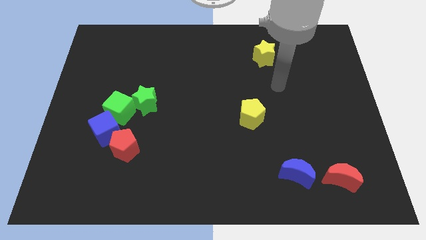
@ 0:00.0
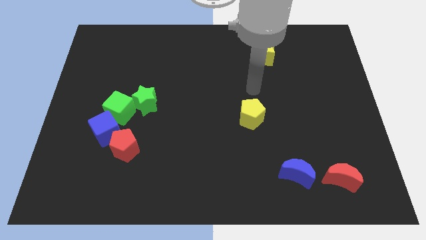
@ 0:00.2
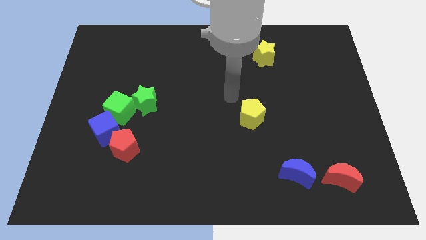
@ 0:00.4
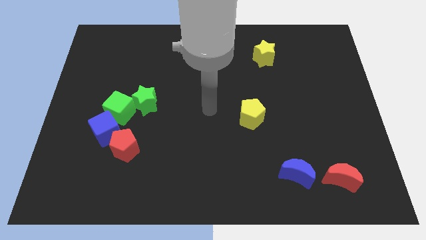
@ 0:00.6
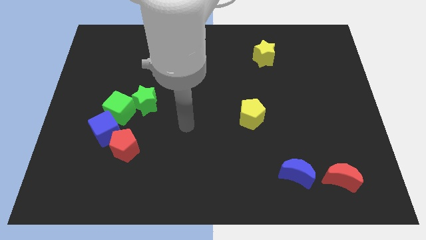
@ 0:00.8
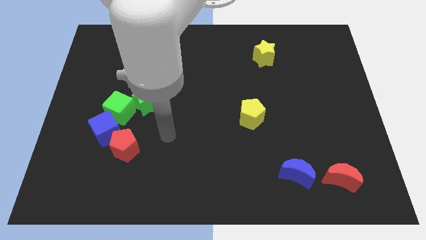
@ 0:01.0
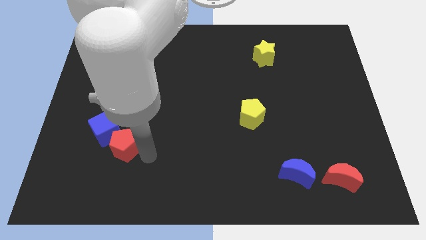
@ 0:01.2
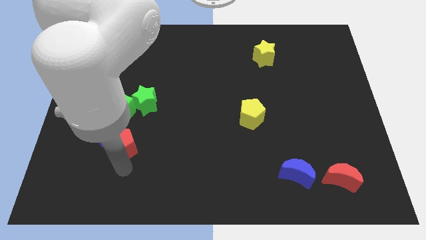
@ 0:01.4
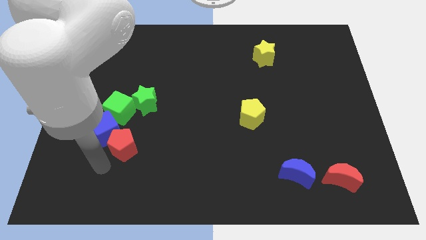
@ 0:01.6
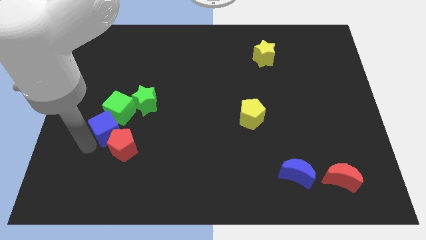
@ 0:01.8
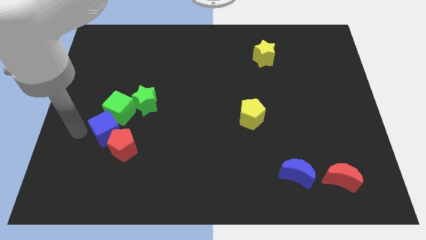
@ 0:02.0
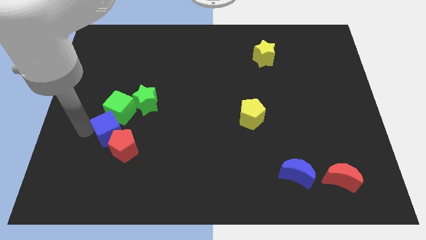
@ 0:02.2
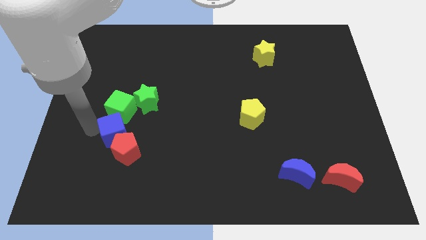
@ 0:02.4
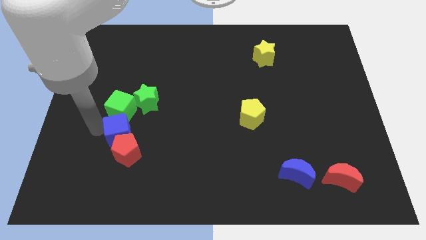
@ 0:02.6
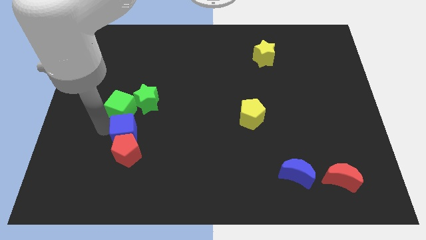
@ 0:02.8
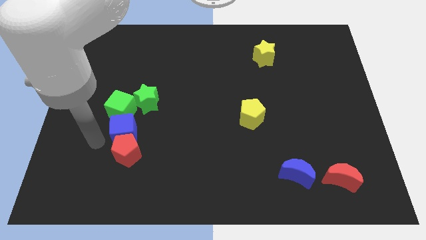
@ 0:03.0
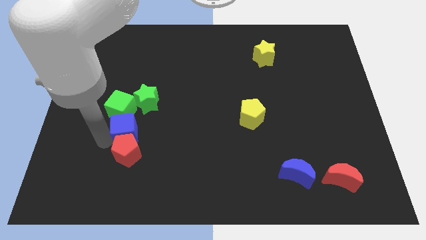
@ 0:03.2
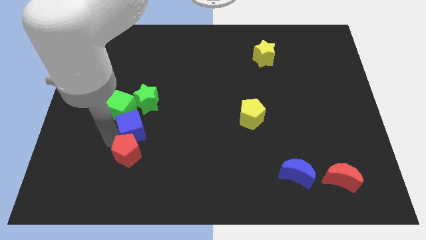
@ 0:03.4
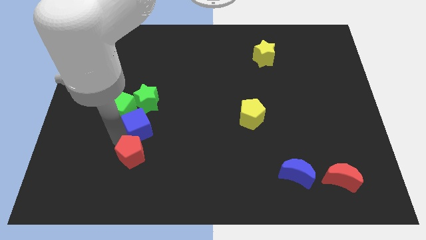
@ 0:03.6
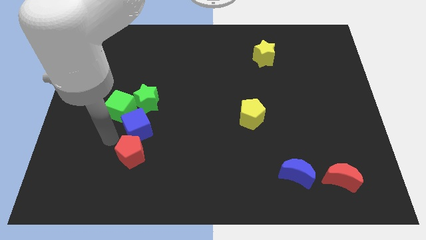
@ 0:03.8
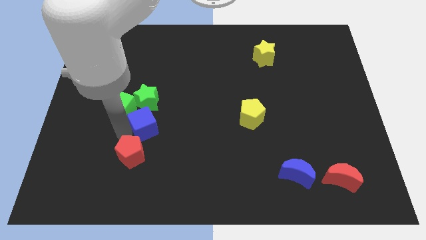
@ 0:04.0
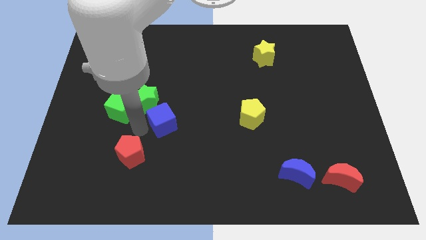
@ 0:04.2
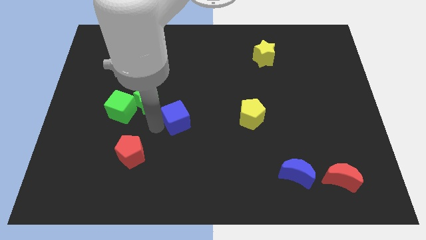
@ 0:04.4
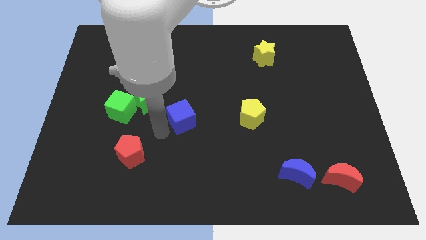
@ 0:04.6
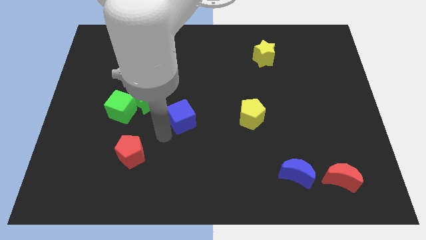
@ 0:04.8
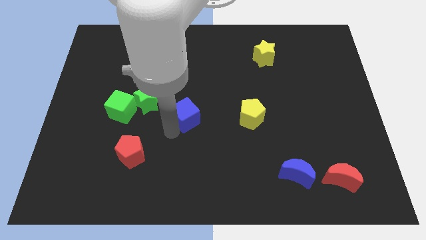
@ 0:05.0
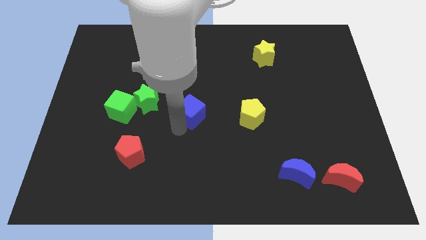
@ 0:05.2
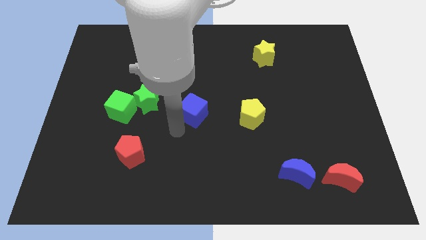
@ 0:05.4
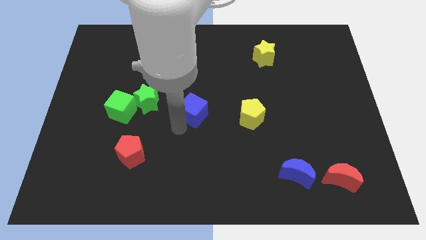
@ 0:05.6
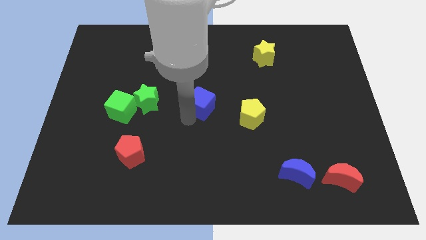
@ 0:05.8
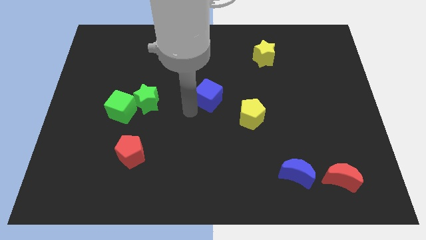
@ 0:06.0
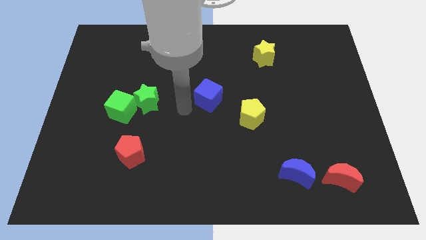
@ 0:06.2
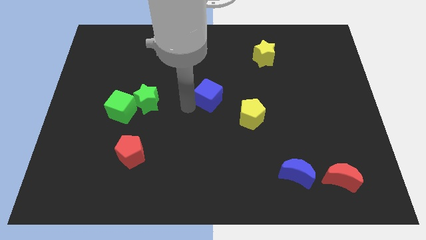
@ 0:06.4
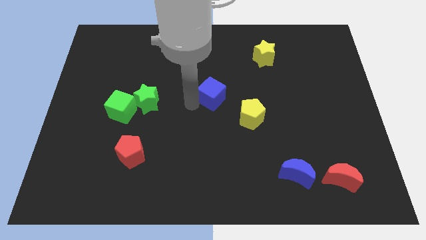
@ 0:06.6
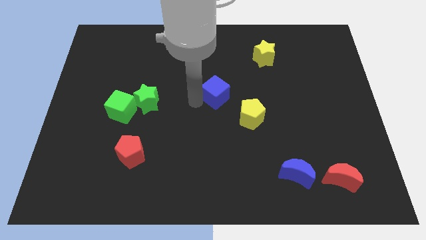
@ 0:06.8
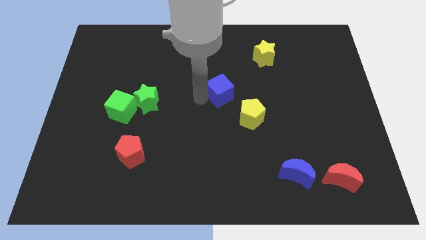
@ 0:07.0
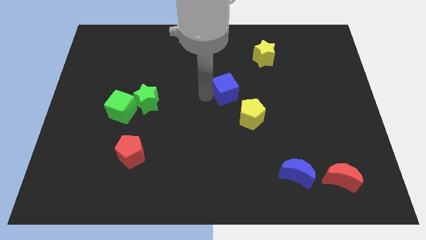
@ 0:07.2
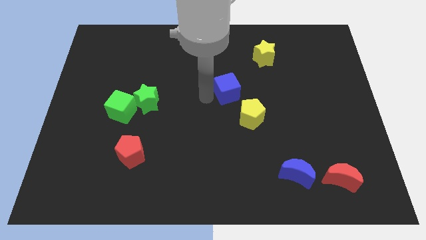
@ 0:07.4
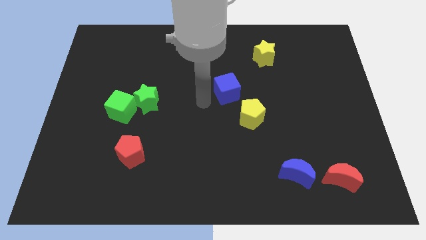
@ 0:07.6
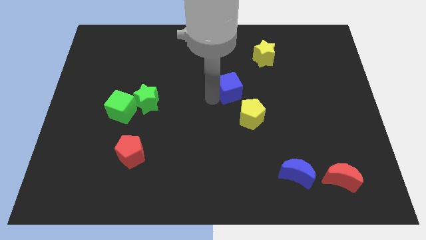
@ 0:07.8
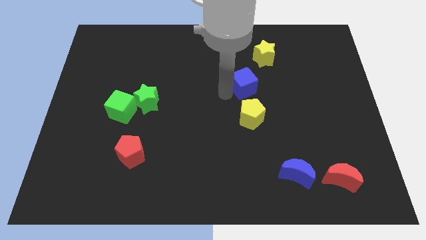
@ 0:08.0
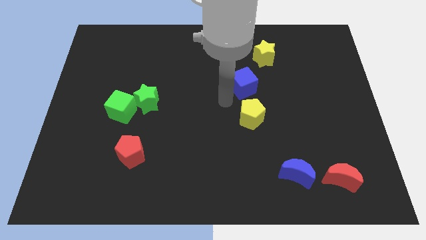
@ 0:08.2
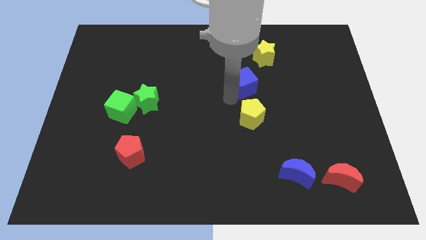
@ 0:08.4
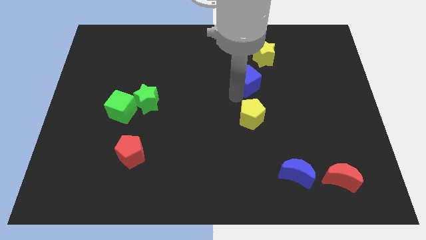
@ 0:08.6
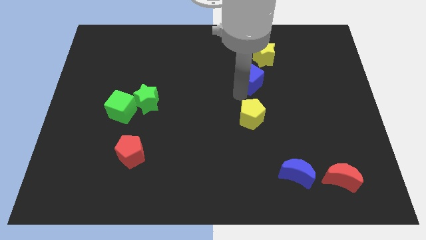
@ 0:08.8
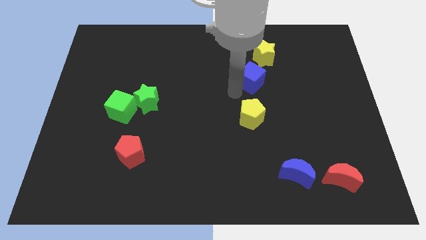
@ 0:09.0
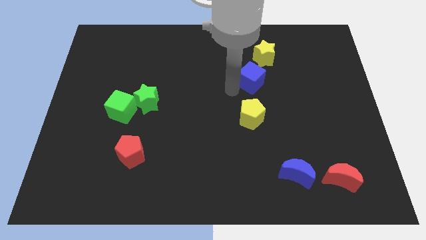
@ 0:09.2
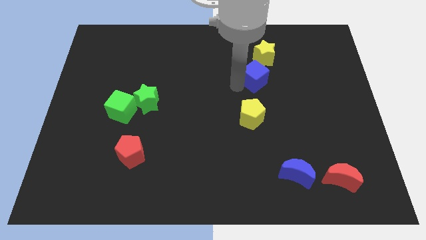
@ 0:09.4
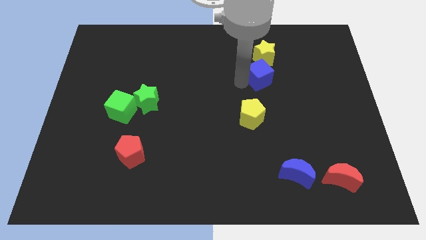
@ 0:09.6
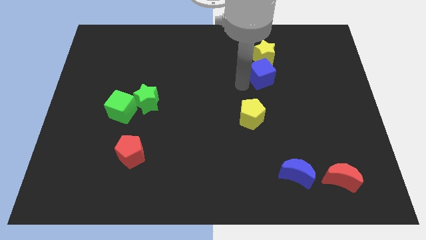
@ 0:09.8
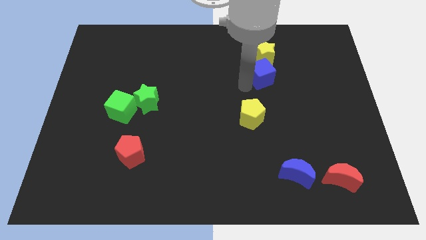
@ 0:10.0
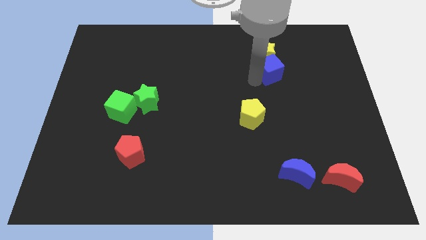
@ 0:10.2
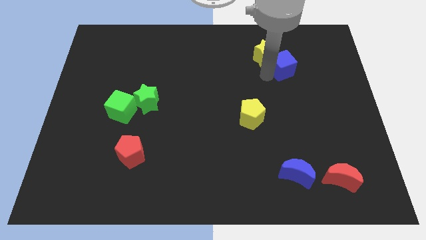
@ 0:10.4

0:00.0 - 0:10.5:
move the blue cube just right of the yellow star

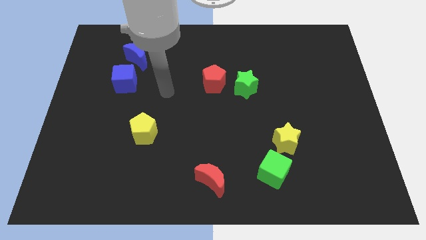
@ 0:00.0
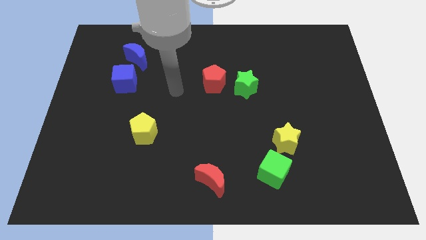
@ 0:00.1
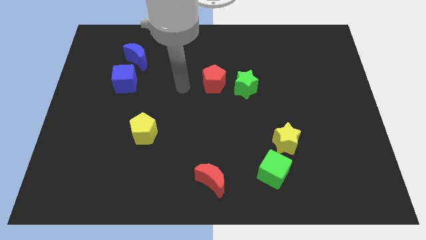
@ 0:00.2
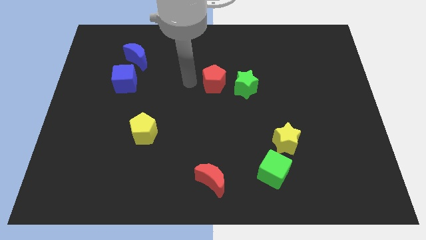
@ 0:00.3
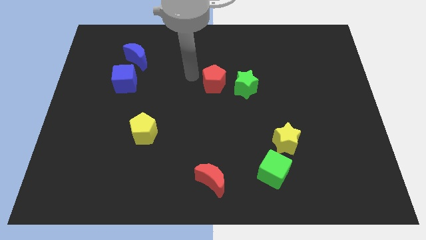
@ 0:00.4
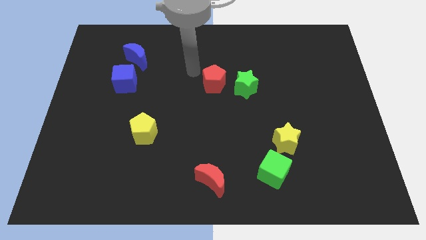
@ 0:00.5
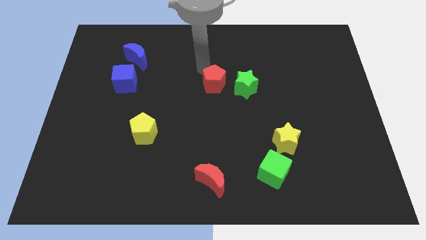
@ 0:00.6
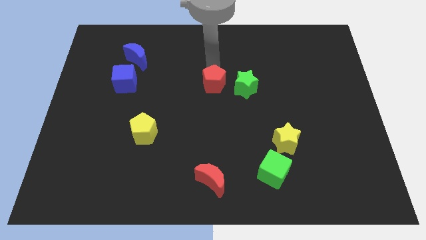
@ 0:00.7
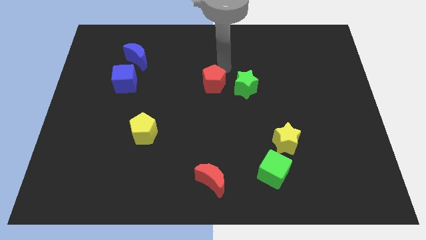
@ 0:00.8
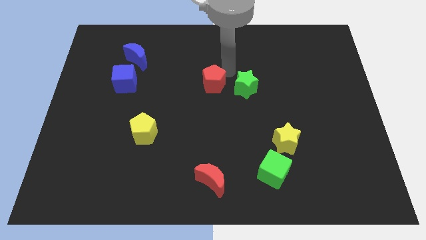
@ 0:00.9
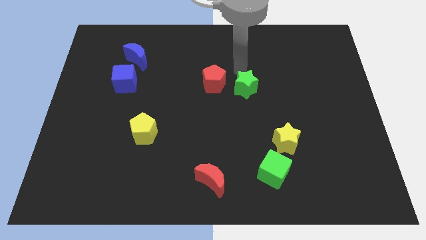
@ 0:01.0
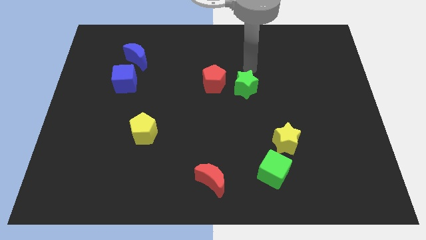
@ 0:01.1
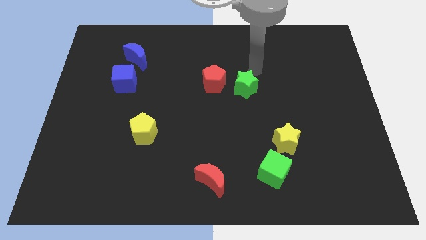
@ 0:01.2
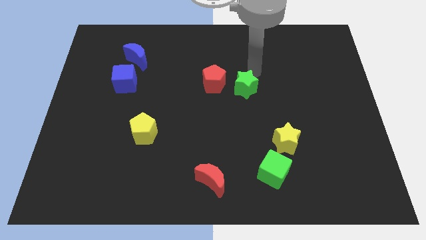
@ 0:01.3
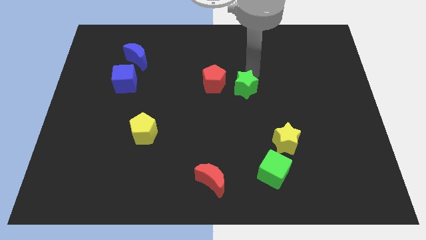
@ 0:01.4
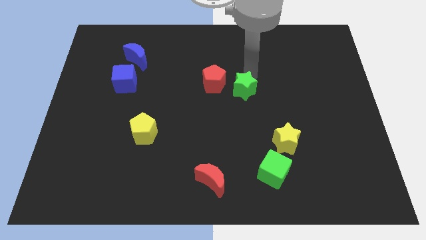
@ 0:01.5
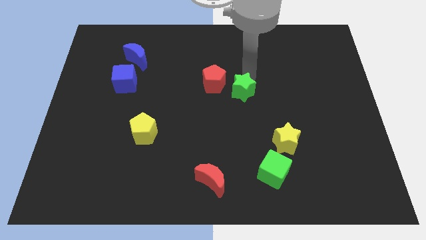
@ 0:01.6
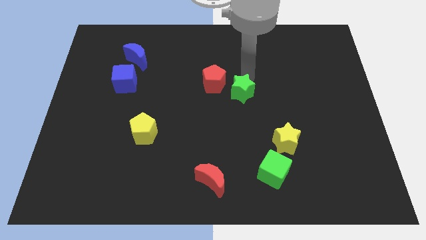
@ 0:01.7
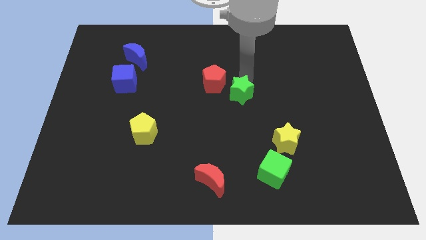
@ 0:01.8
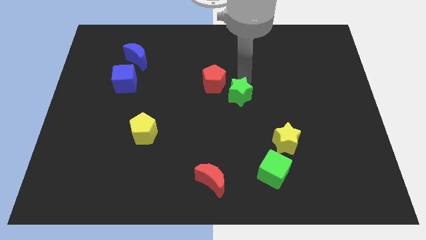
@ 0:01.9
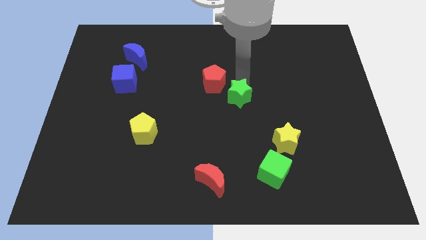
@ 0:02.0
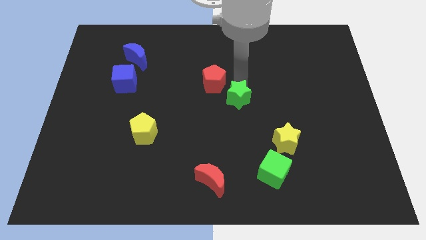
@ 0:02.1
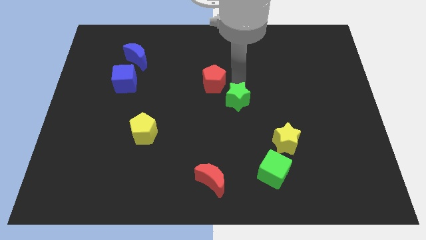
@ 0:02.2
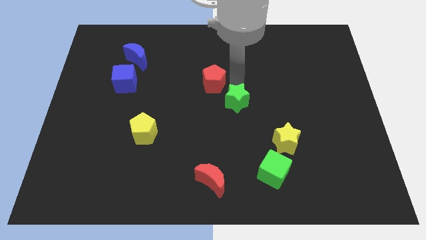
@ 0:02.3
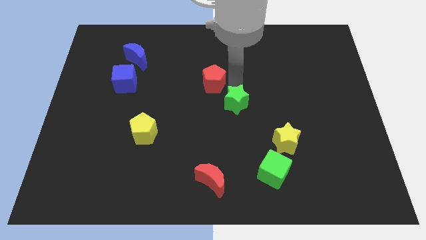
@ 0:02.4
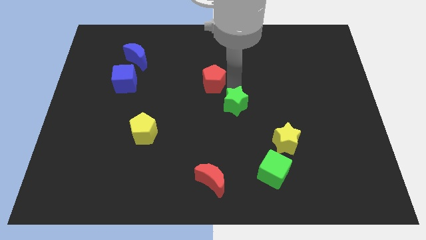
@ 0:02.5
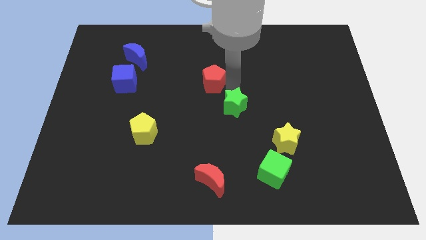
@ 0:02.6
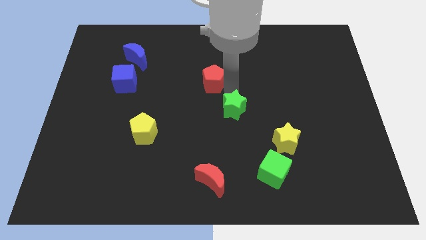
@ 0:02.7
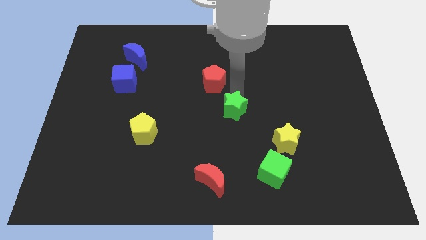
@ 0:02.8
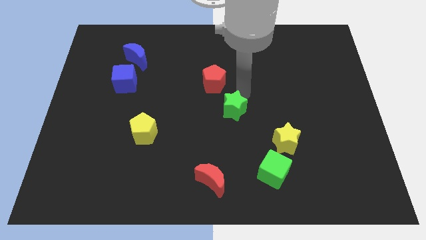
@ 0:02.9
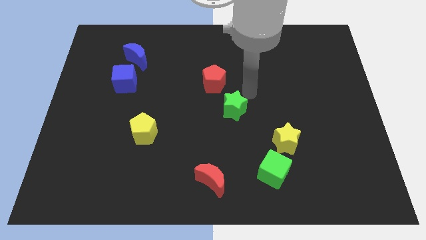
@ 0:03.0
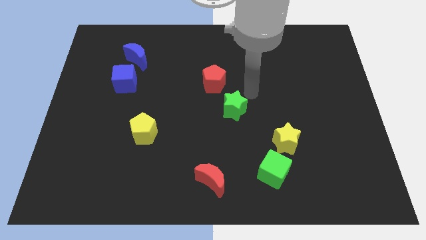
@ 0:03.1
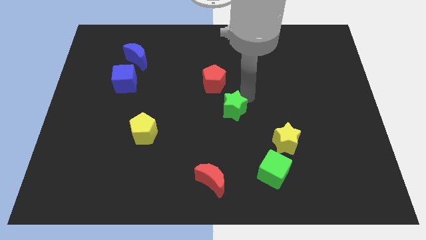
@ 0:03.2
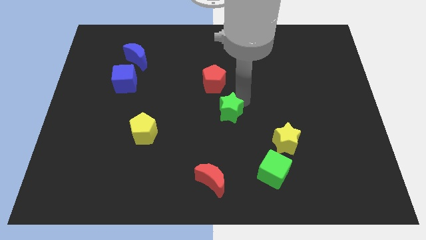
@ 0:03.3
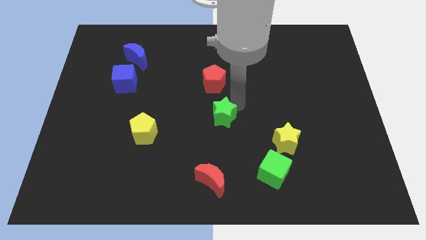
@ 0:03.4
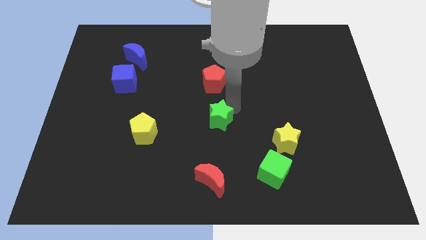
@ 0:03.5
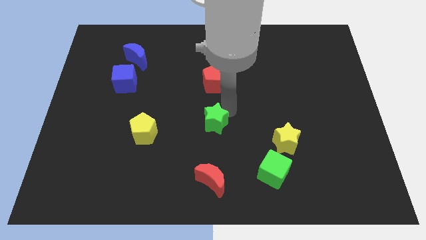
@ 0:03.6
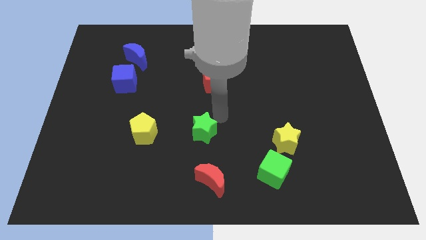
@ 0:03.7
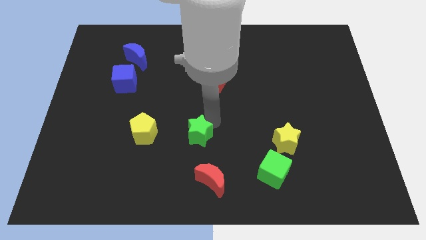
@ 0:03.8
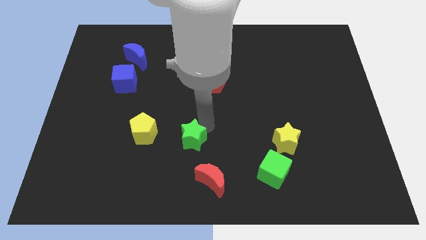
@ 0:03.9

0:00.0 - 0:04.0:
move the green star to the top left of the red moon
